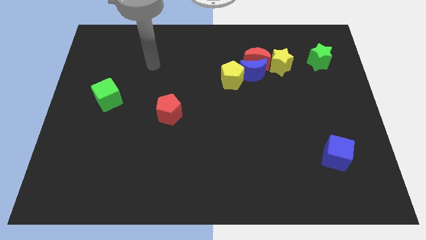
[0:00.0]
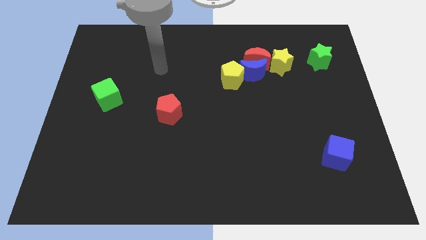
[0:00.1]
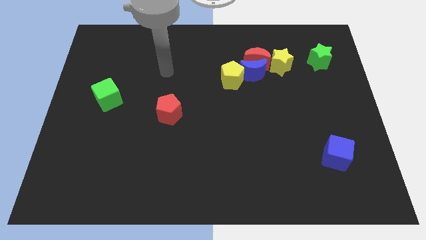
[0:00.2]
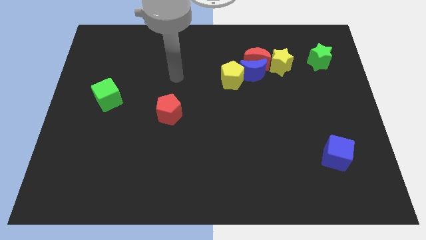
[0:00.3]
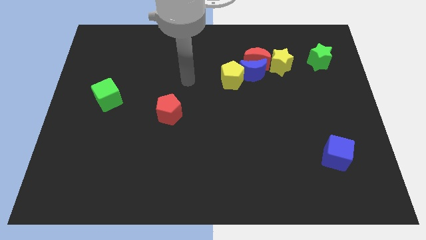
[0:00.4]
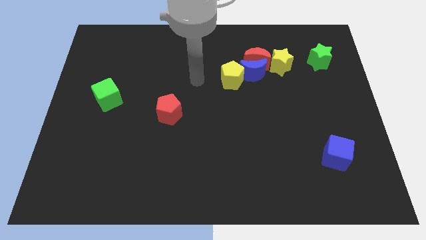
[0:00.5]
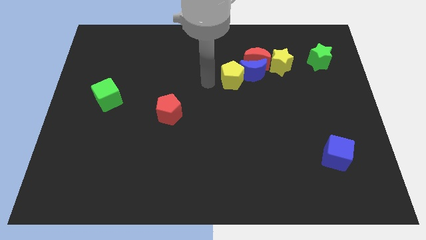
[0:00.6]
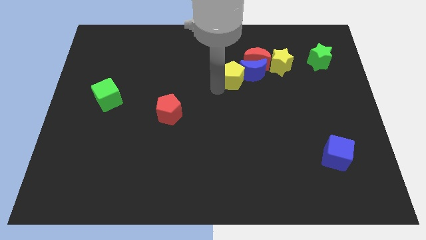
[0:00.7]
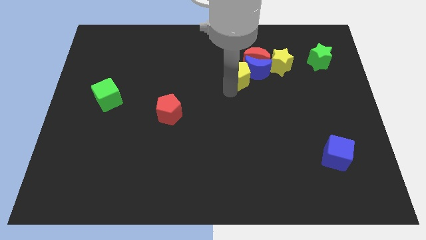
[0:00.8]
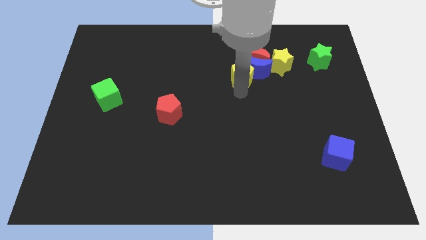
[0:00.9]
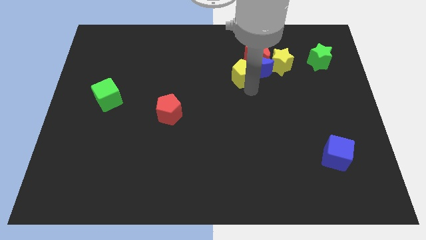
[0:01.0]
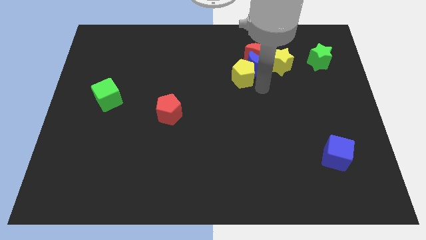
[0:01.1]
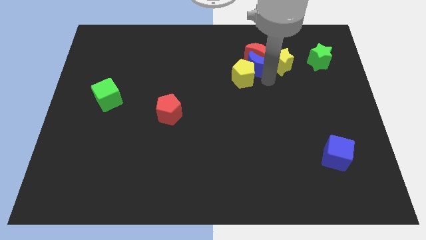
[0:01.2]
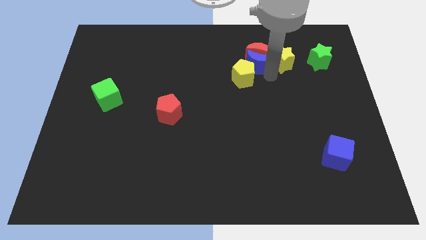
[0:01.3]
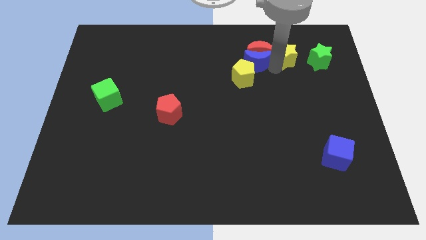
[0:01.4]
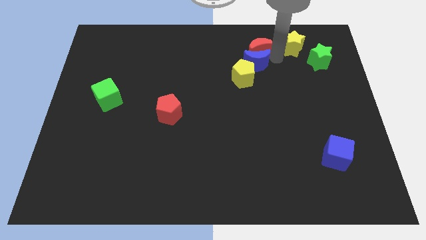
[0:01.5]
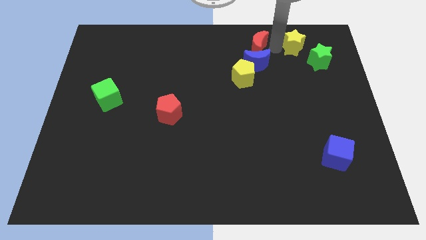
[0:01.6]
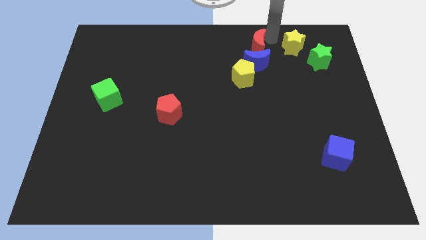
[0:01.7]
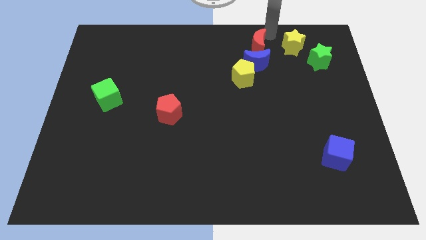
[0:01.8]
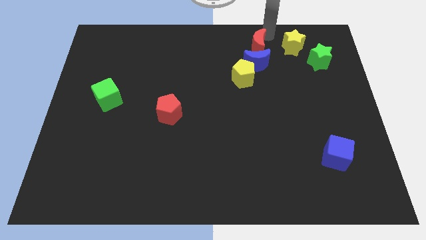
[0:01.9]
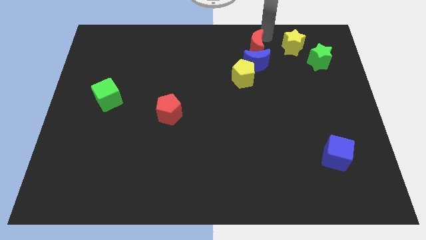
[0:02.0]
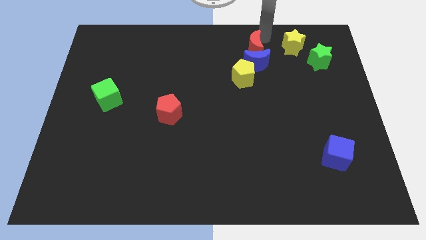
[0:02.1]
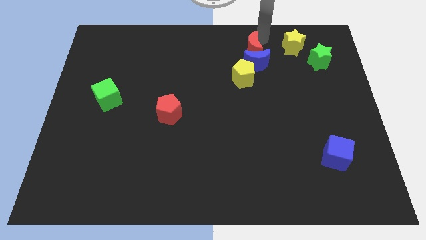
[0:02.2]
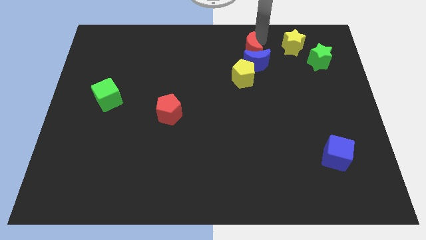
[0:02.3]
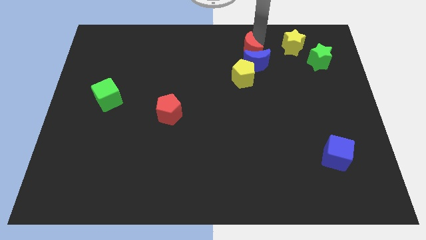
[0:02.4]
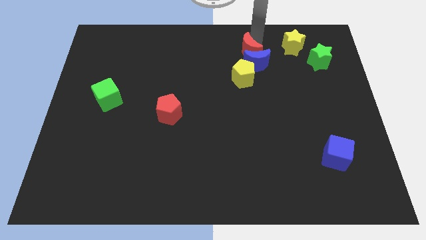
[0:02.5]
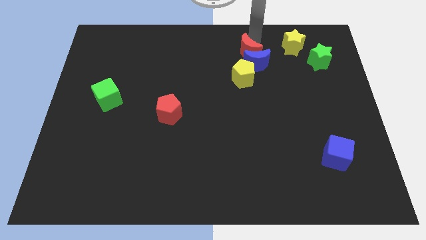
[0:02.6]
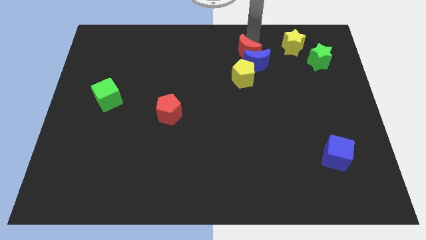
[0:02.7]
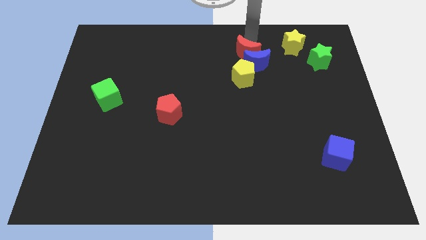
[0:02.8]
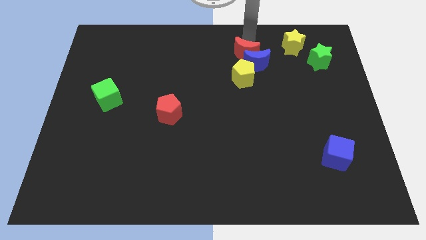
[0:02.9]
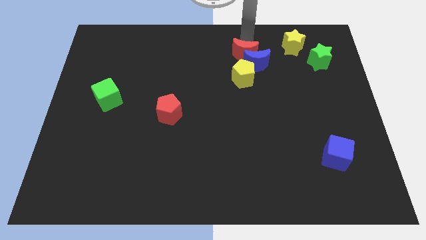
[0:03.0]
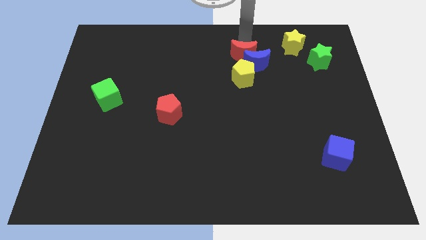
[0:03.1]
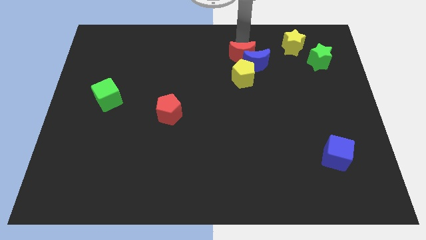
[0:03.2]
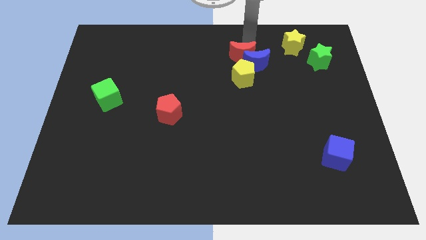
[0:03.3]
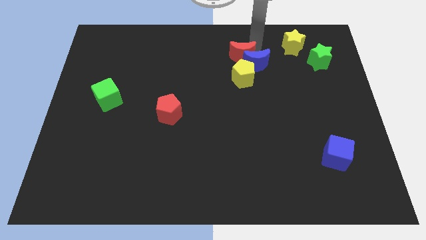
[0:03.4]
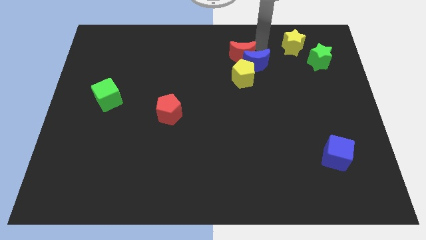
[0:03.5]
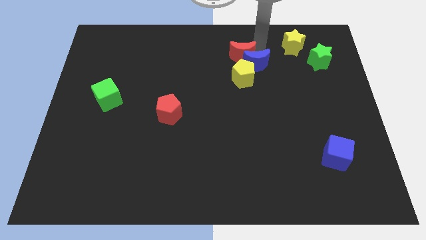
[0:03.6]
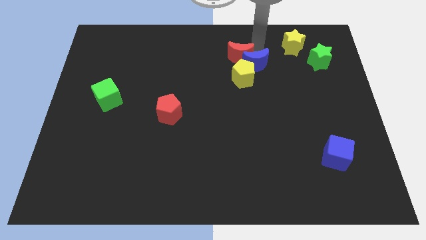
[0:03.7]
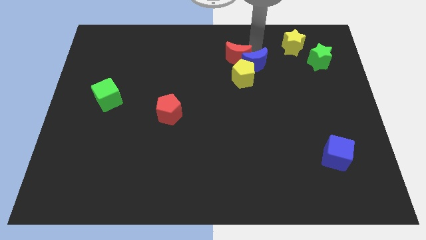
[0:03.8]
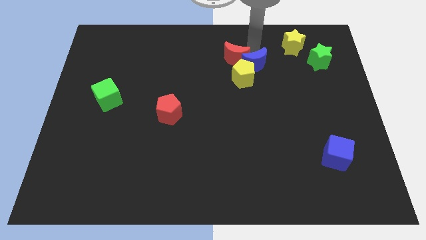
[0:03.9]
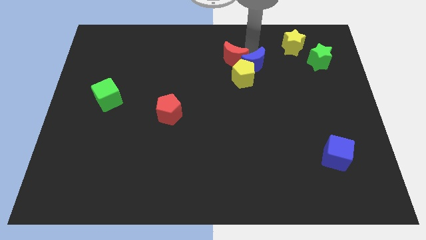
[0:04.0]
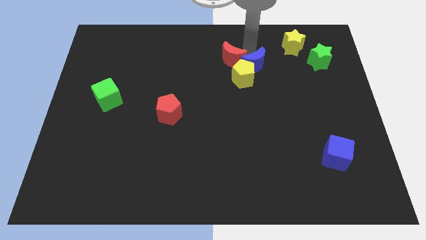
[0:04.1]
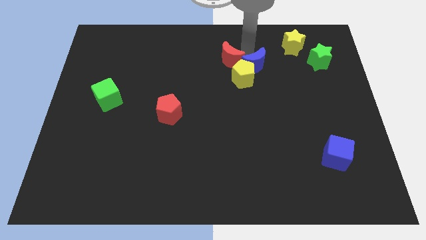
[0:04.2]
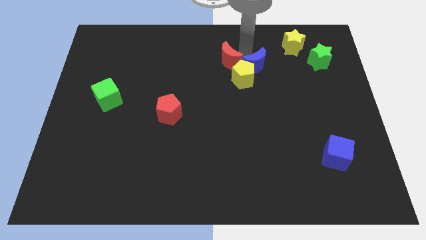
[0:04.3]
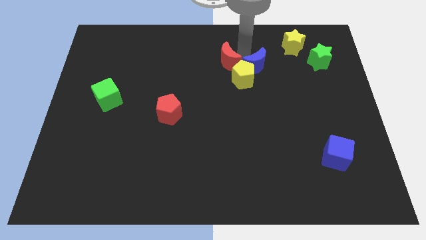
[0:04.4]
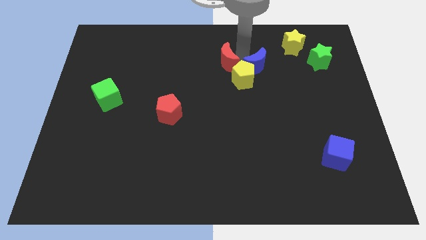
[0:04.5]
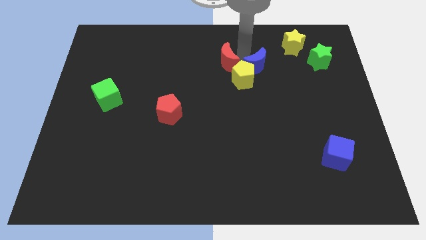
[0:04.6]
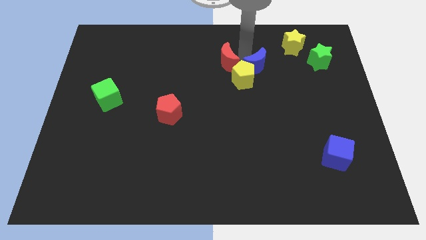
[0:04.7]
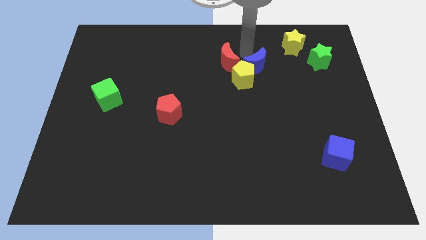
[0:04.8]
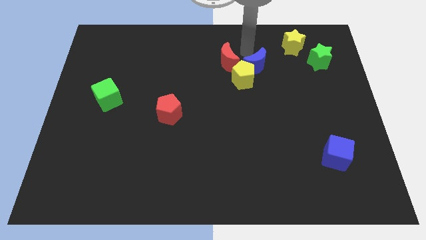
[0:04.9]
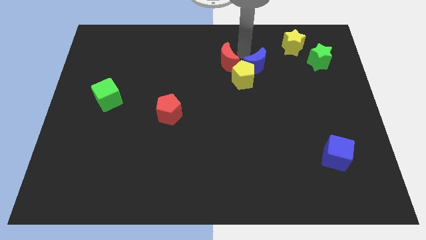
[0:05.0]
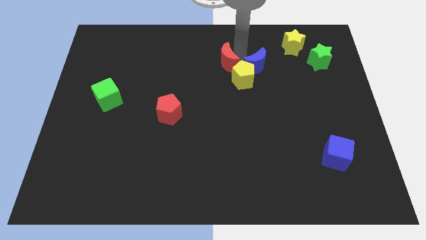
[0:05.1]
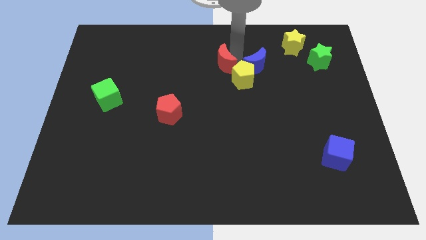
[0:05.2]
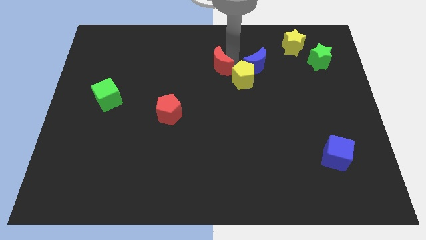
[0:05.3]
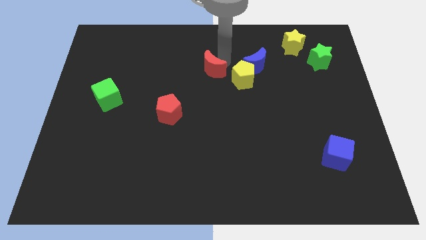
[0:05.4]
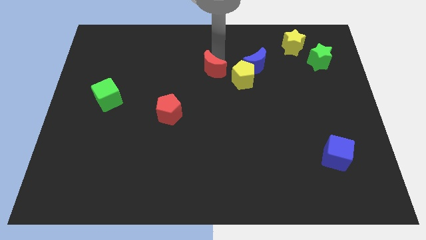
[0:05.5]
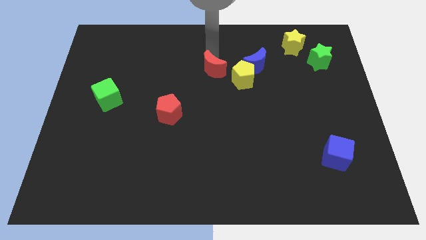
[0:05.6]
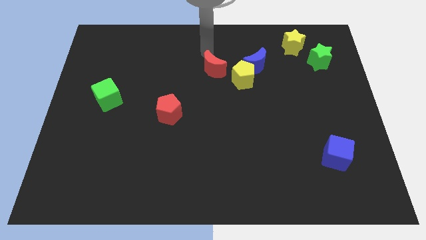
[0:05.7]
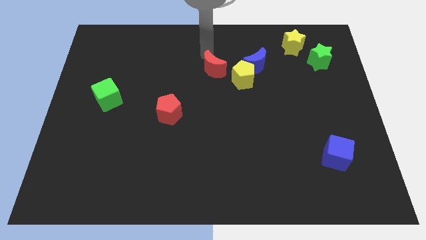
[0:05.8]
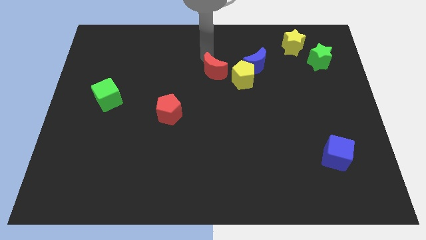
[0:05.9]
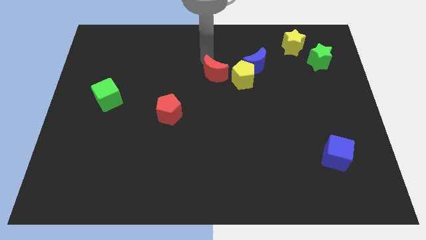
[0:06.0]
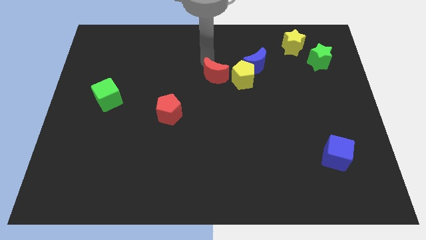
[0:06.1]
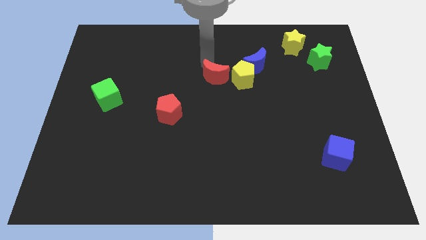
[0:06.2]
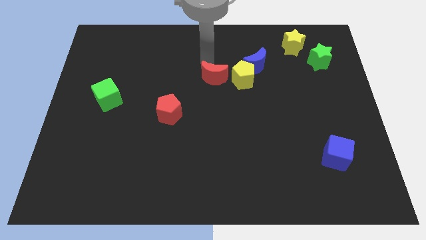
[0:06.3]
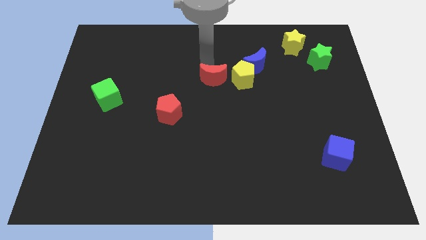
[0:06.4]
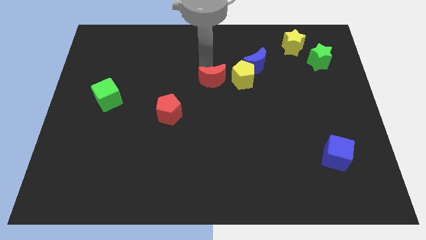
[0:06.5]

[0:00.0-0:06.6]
push the red moon to the bottom left of the yellow pentagon
